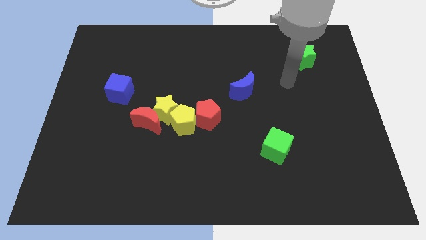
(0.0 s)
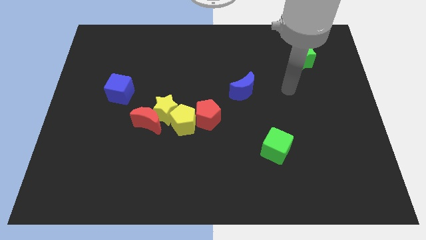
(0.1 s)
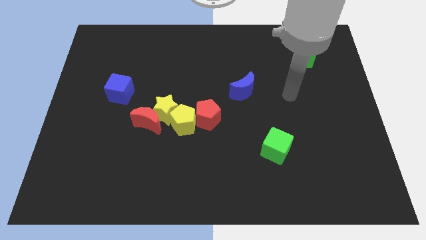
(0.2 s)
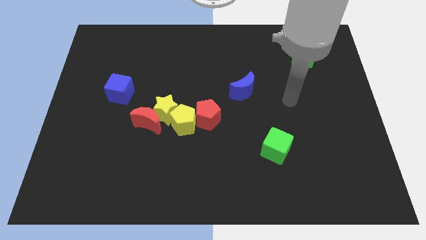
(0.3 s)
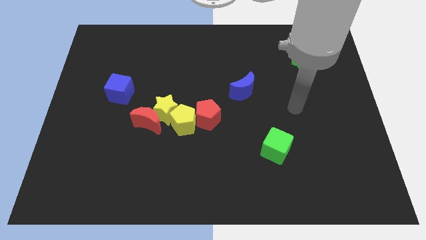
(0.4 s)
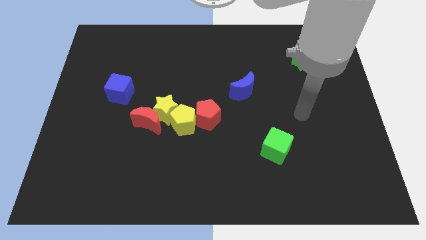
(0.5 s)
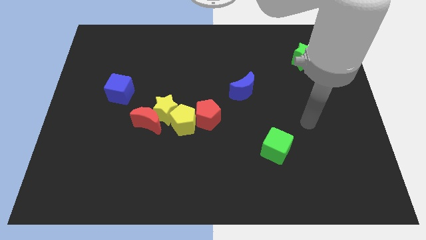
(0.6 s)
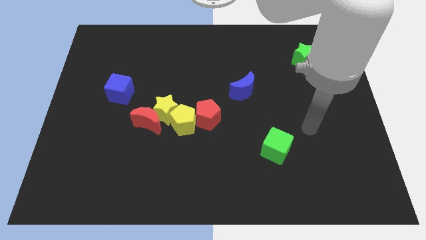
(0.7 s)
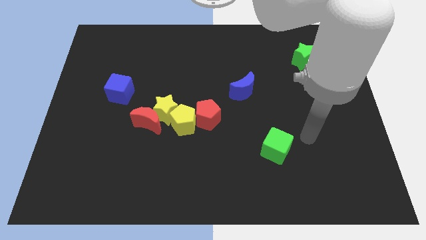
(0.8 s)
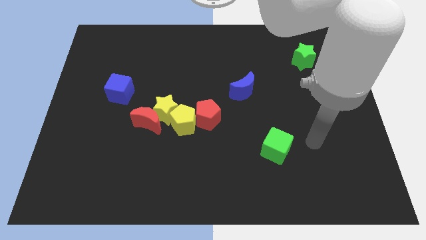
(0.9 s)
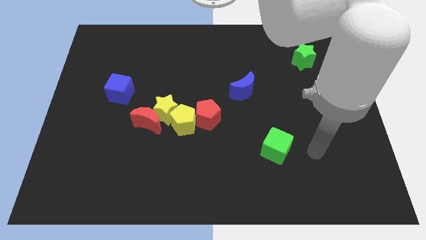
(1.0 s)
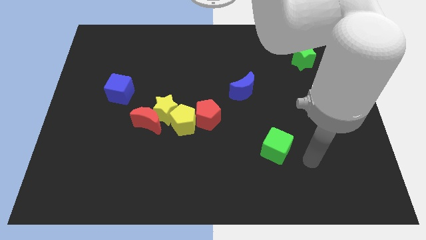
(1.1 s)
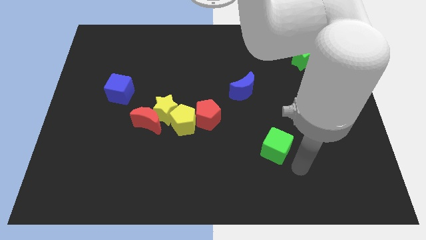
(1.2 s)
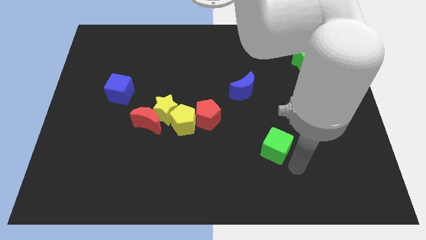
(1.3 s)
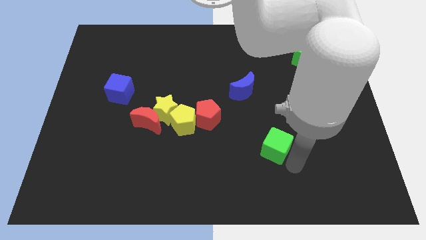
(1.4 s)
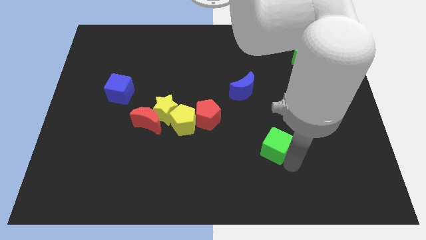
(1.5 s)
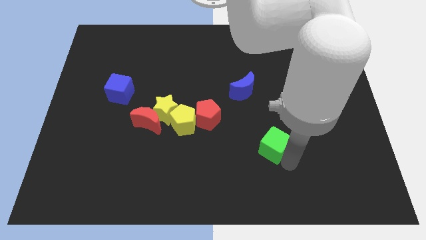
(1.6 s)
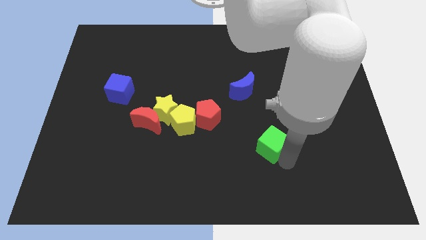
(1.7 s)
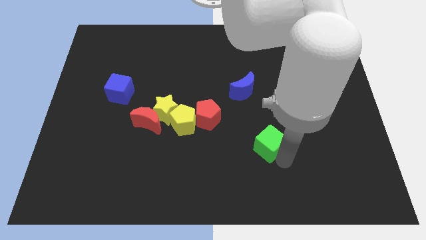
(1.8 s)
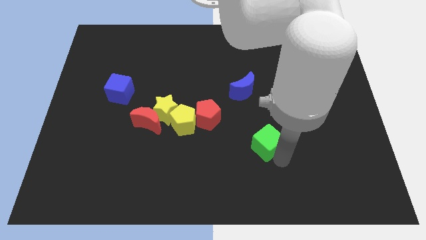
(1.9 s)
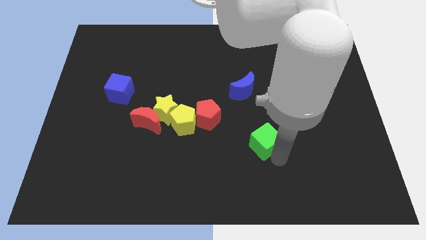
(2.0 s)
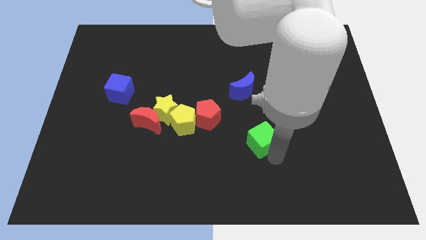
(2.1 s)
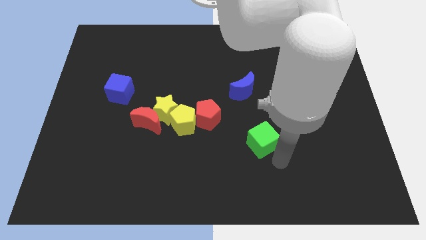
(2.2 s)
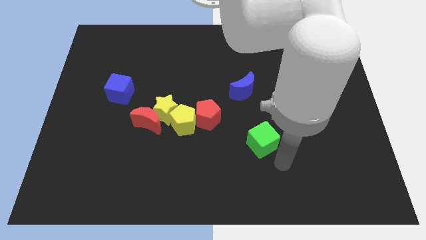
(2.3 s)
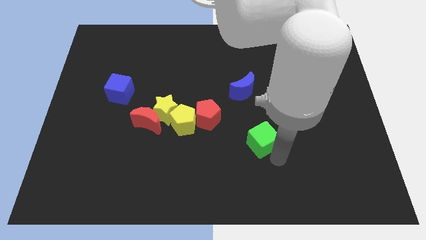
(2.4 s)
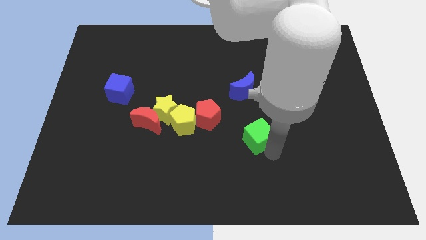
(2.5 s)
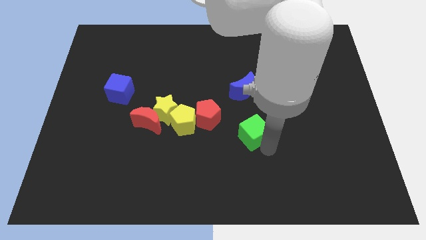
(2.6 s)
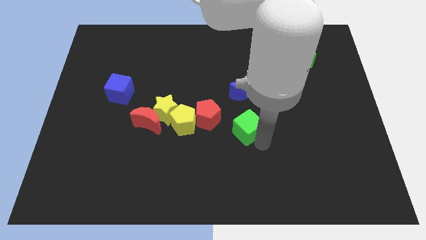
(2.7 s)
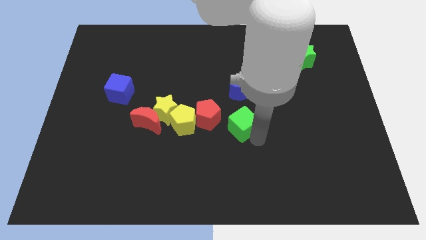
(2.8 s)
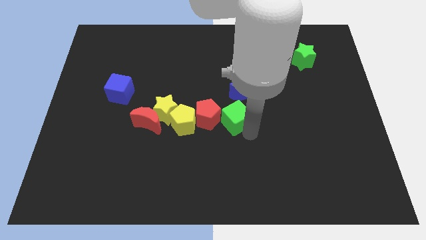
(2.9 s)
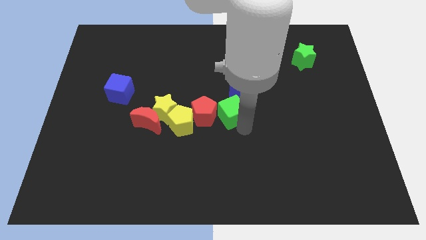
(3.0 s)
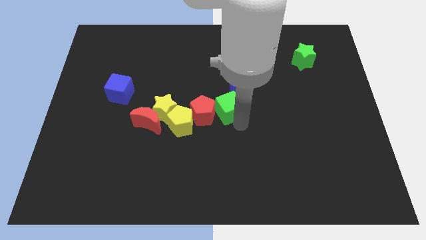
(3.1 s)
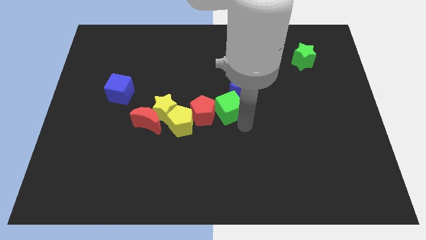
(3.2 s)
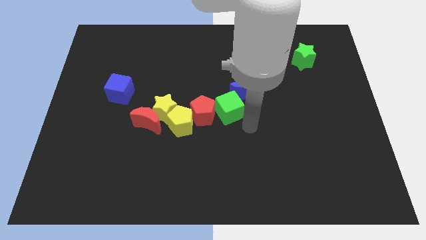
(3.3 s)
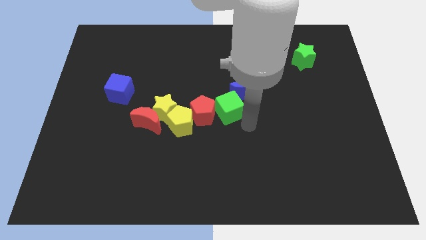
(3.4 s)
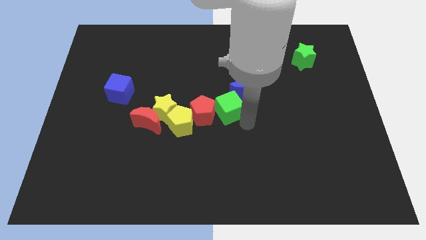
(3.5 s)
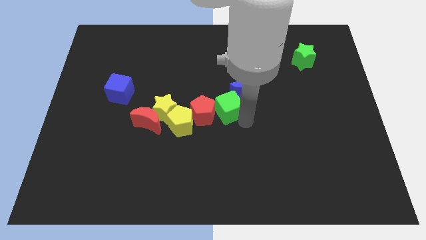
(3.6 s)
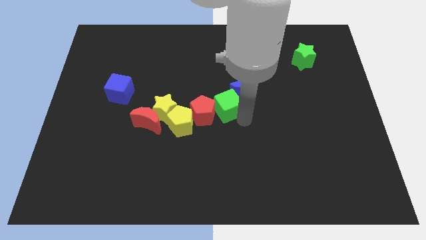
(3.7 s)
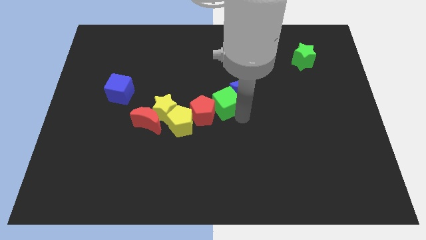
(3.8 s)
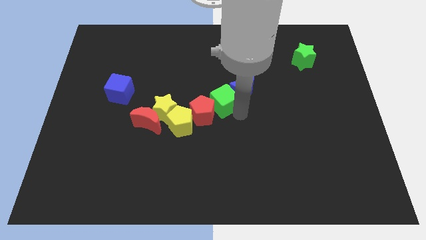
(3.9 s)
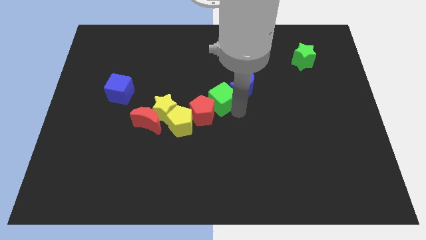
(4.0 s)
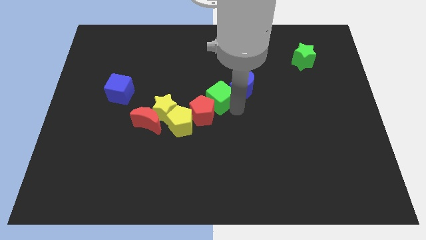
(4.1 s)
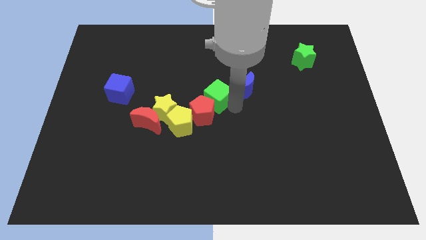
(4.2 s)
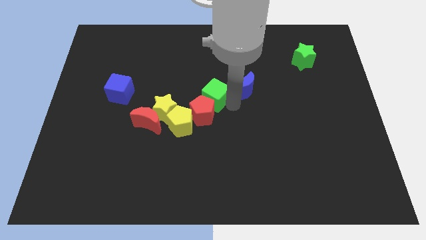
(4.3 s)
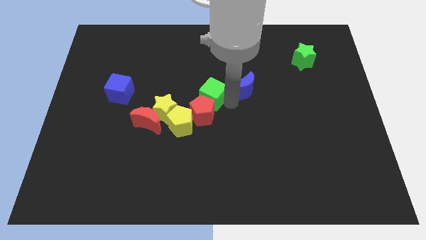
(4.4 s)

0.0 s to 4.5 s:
move the green cube up and then to the left

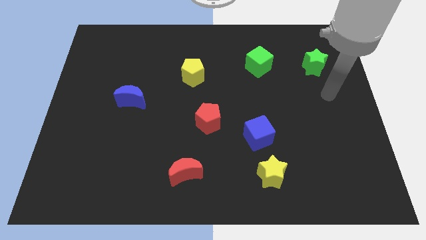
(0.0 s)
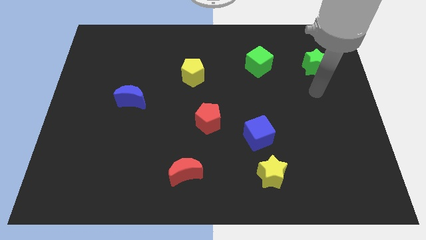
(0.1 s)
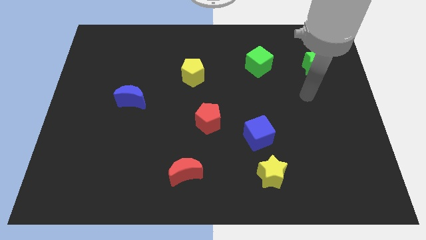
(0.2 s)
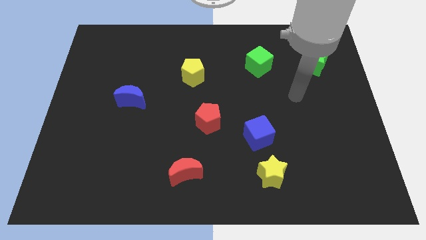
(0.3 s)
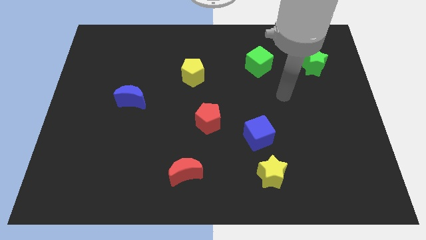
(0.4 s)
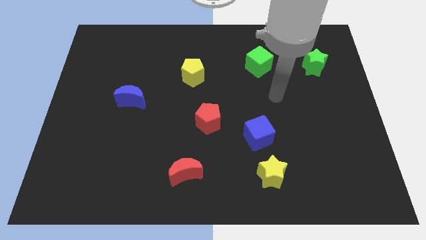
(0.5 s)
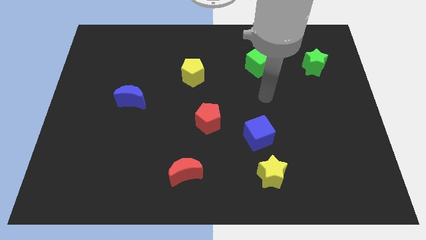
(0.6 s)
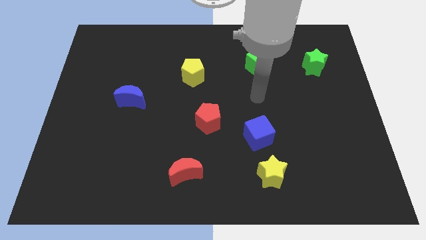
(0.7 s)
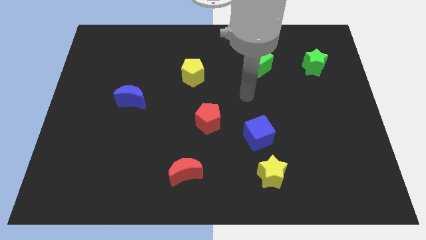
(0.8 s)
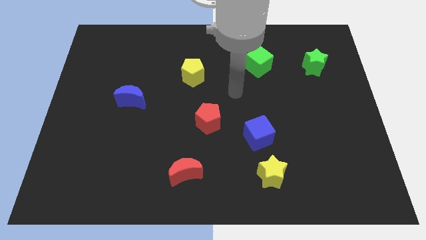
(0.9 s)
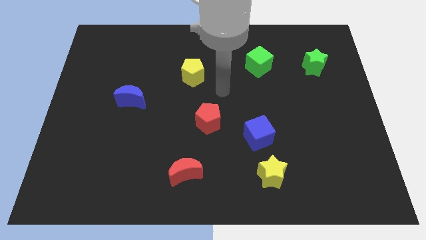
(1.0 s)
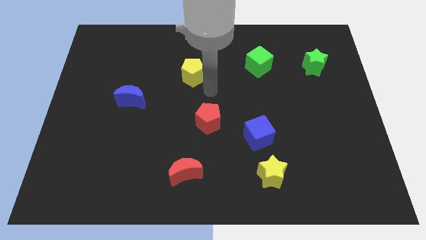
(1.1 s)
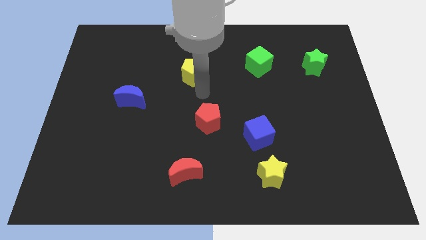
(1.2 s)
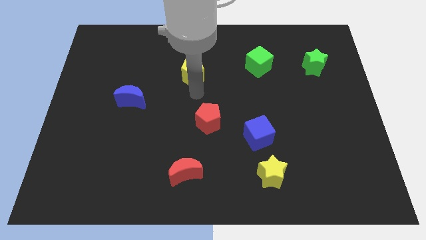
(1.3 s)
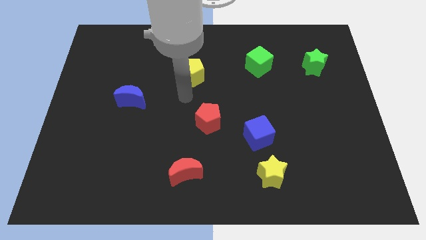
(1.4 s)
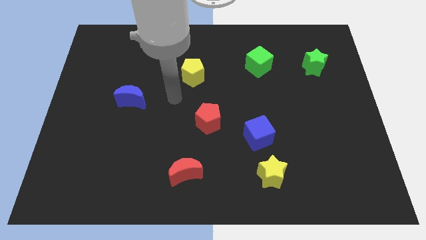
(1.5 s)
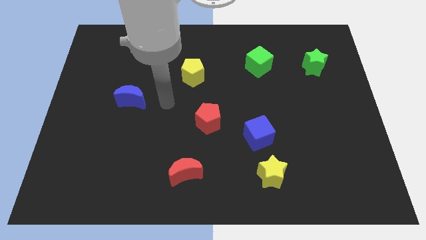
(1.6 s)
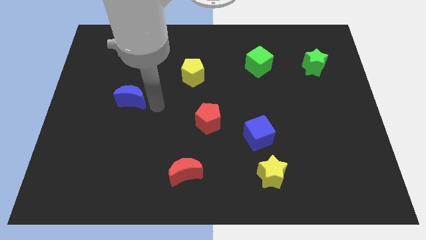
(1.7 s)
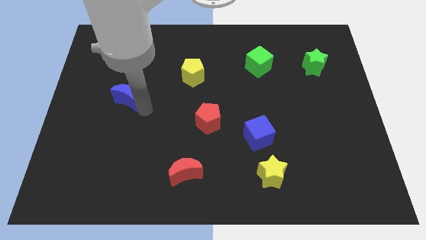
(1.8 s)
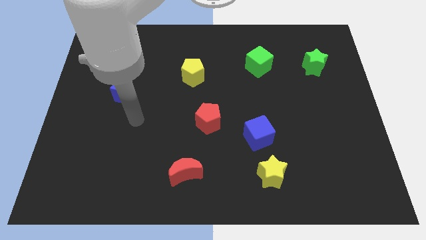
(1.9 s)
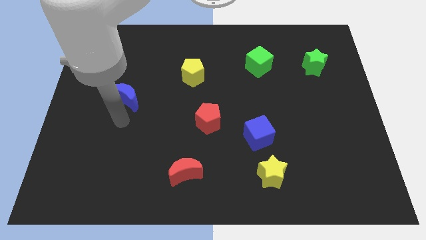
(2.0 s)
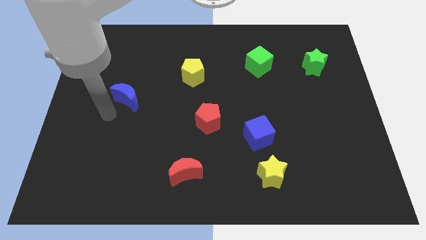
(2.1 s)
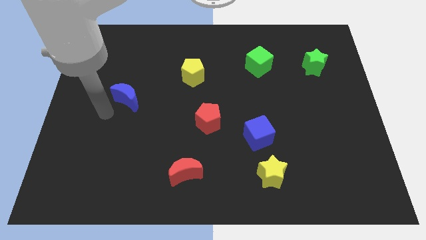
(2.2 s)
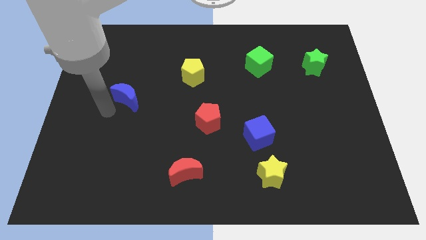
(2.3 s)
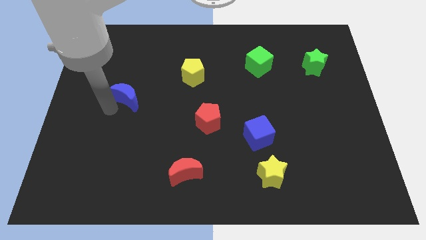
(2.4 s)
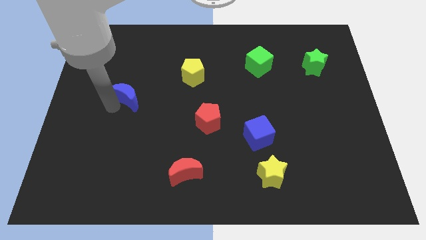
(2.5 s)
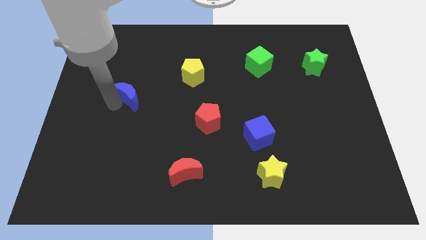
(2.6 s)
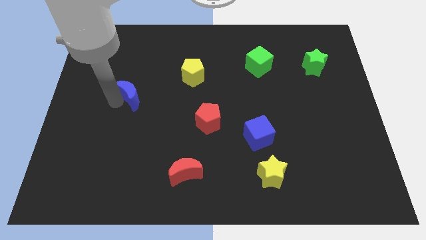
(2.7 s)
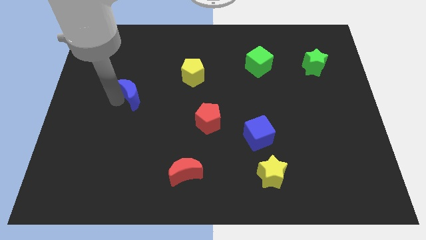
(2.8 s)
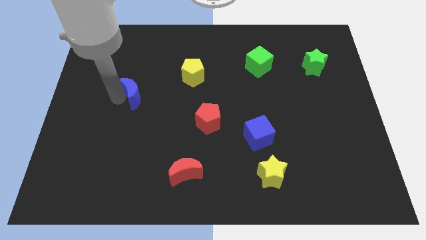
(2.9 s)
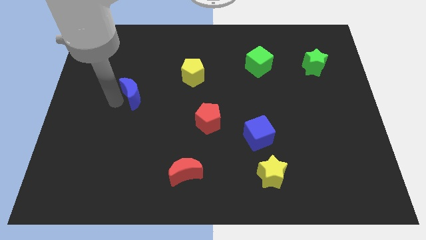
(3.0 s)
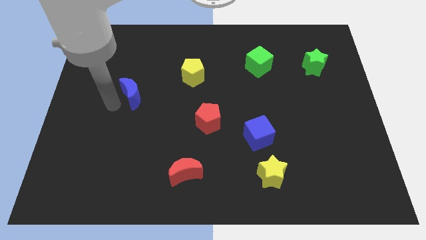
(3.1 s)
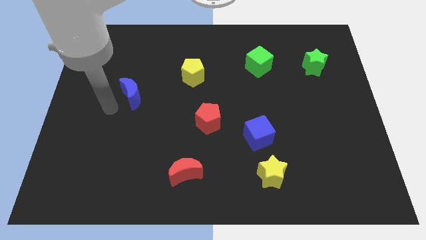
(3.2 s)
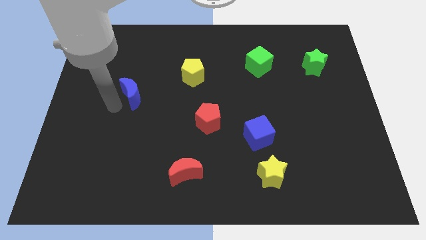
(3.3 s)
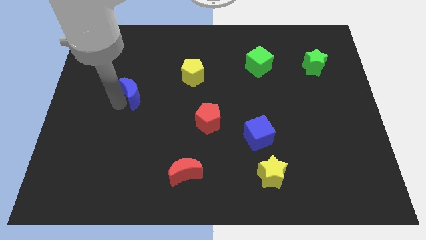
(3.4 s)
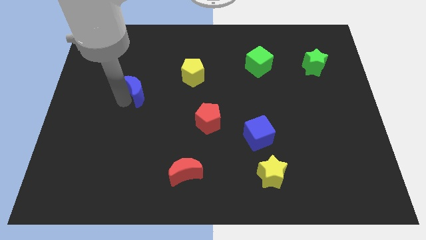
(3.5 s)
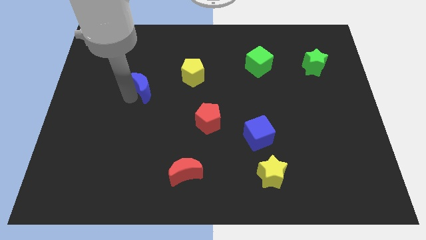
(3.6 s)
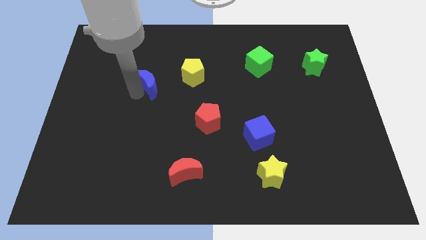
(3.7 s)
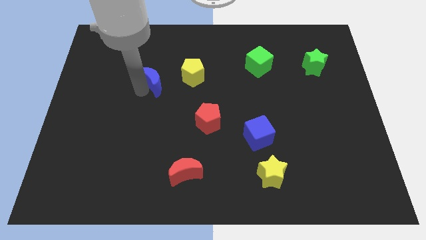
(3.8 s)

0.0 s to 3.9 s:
slightly push the blue moon up and to the right diagonally
